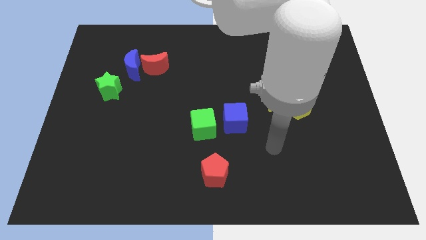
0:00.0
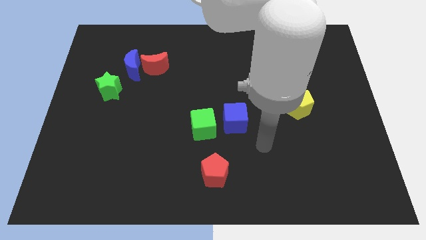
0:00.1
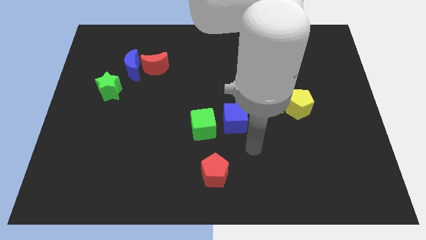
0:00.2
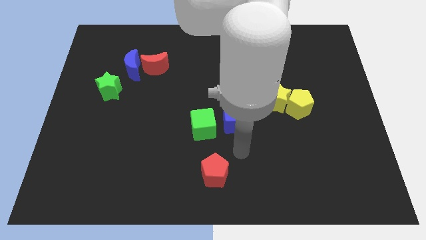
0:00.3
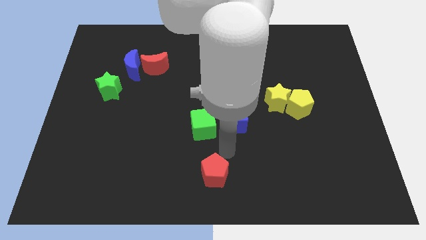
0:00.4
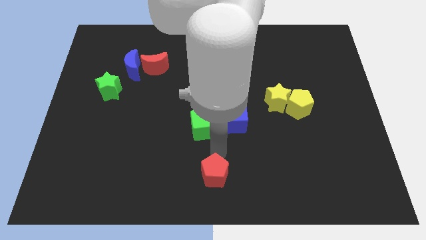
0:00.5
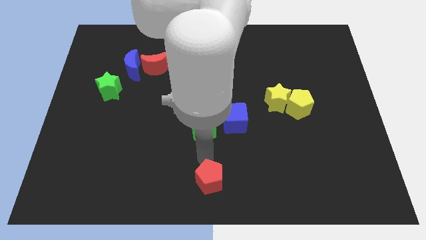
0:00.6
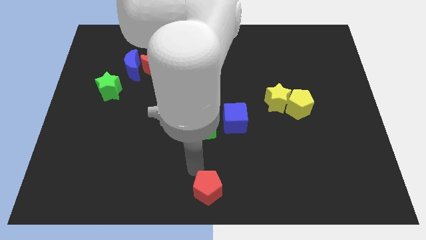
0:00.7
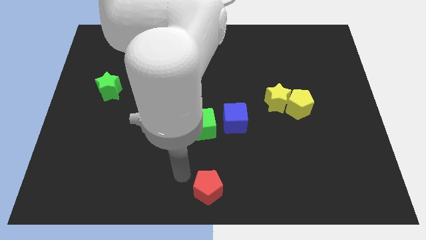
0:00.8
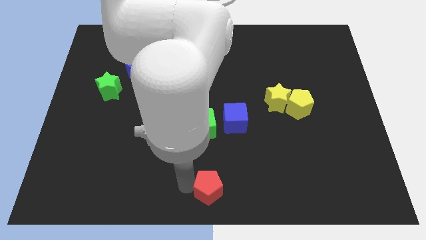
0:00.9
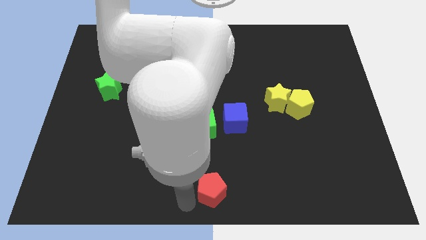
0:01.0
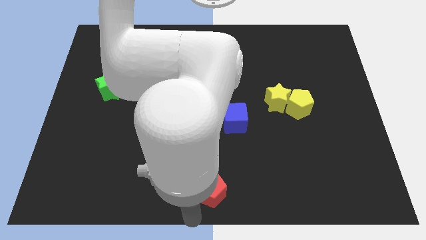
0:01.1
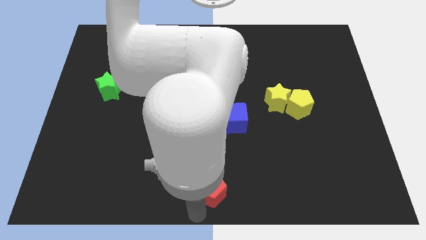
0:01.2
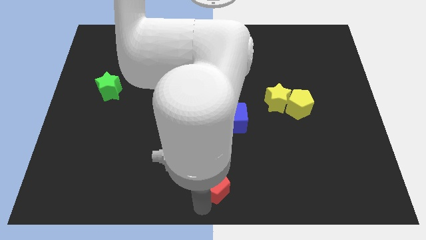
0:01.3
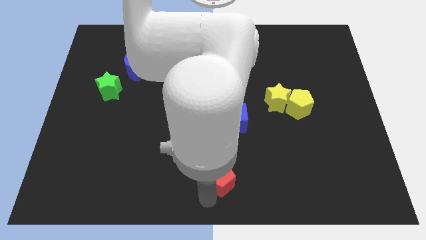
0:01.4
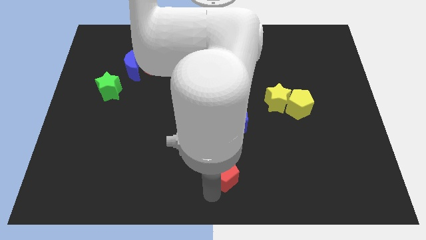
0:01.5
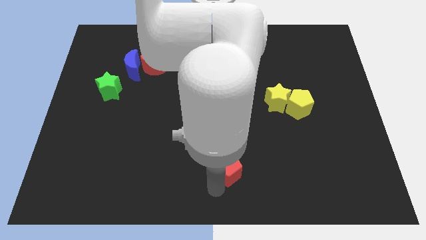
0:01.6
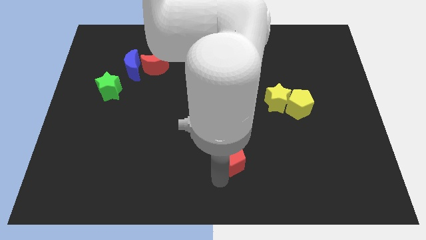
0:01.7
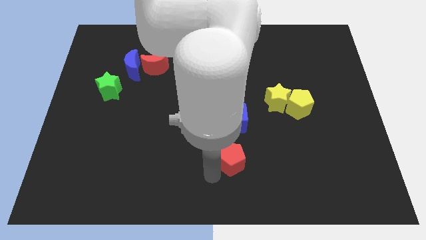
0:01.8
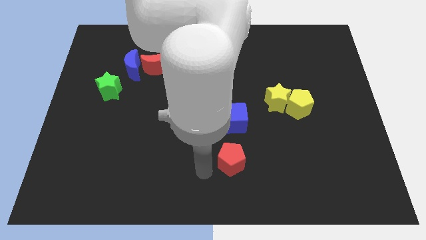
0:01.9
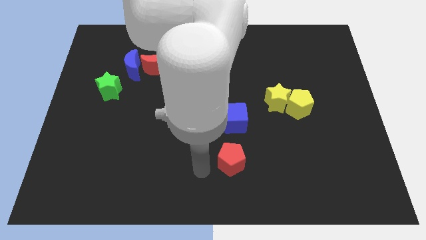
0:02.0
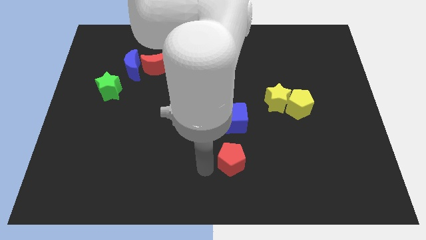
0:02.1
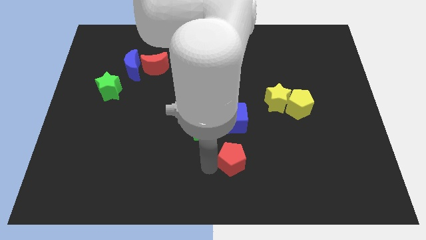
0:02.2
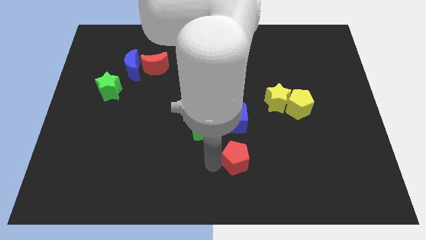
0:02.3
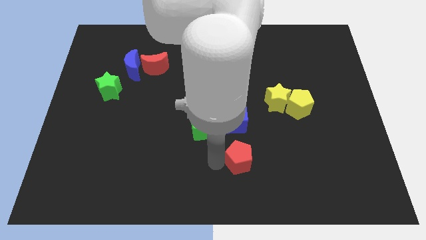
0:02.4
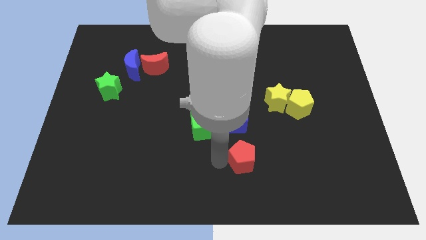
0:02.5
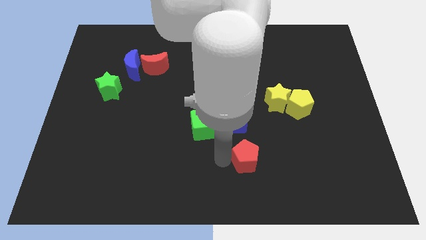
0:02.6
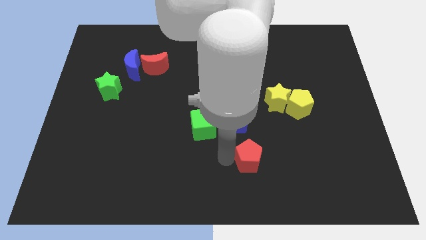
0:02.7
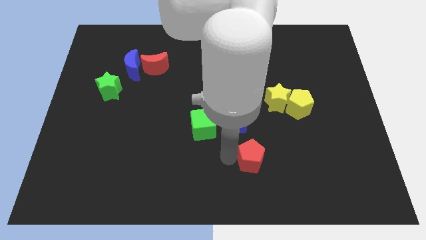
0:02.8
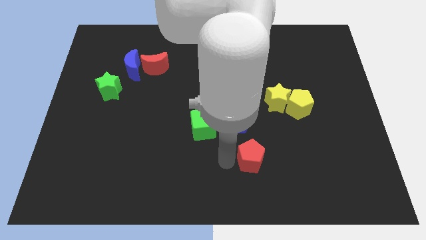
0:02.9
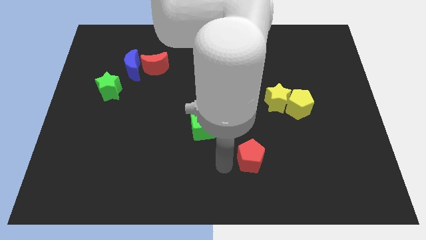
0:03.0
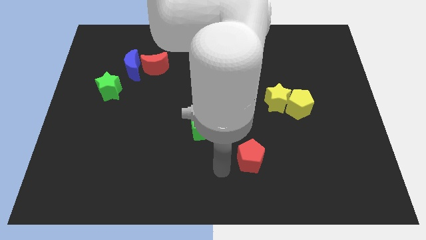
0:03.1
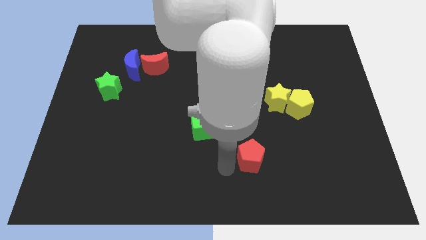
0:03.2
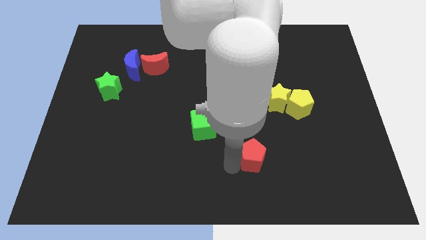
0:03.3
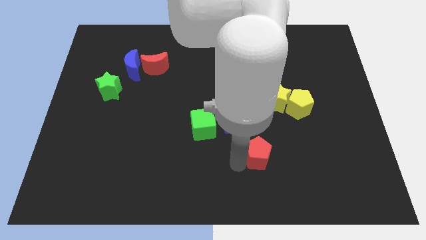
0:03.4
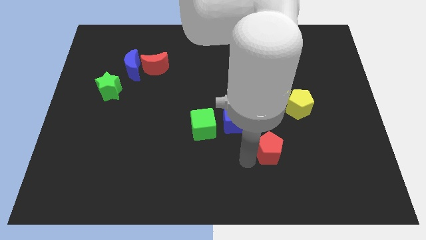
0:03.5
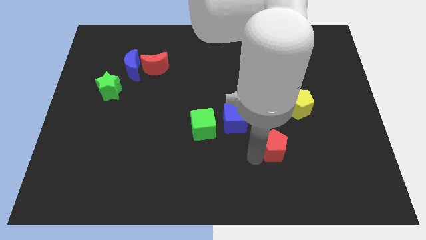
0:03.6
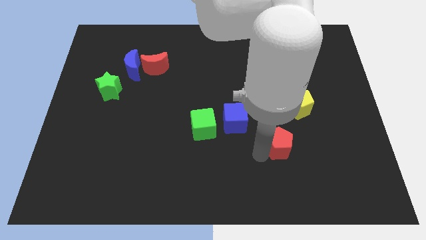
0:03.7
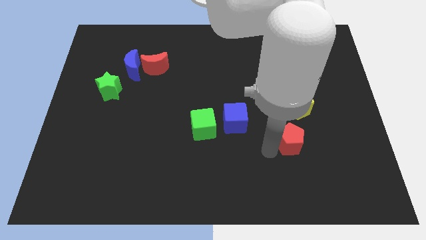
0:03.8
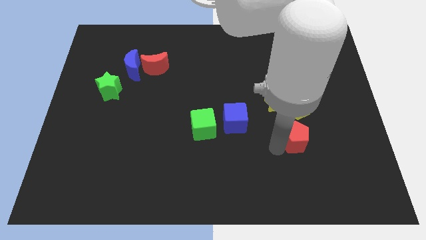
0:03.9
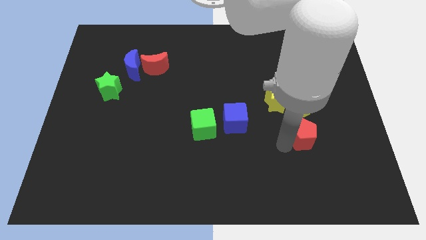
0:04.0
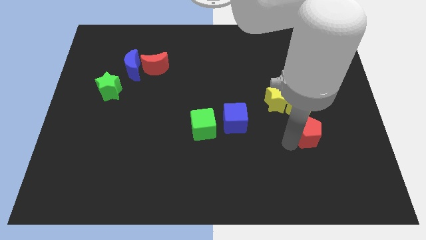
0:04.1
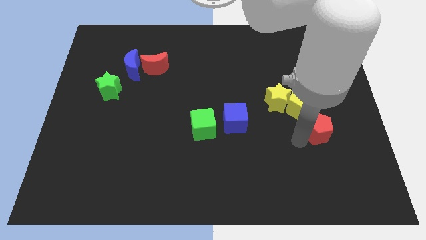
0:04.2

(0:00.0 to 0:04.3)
move the red pentagon up and to the right

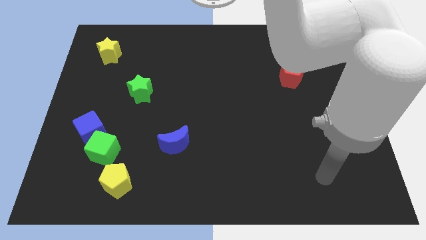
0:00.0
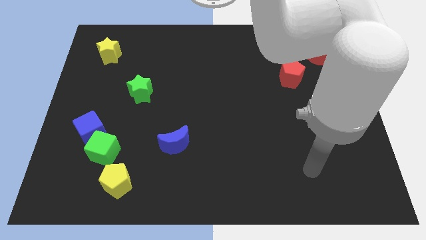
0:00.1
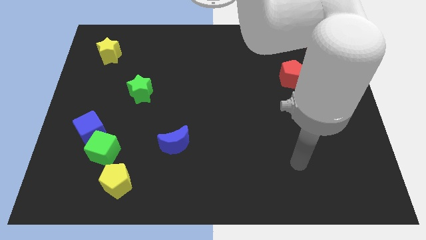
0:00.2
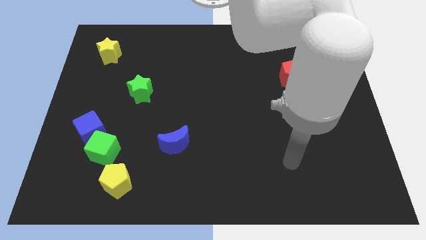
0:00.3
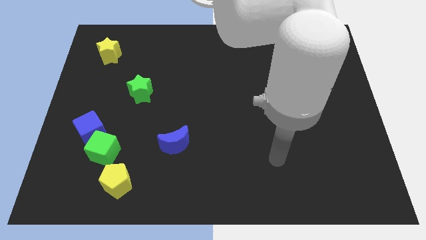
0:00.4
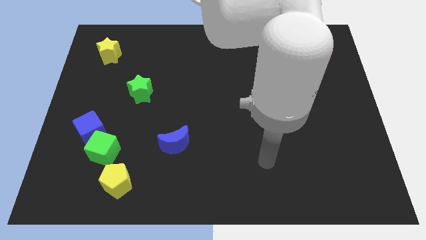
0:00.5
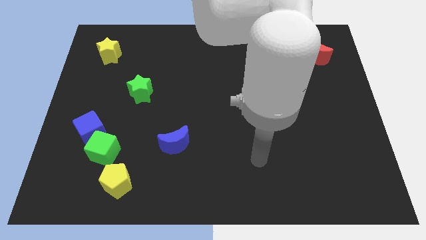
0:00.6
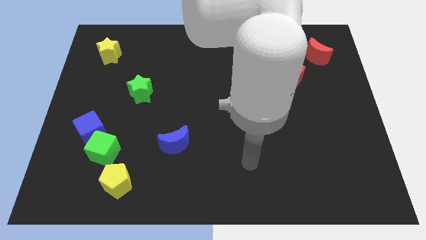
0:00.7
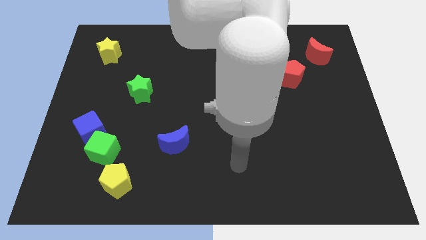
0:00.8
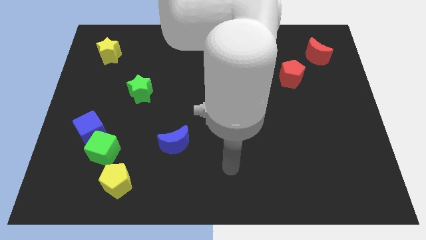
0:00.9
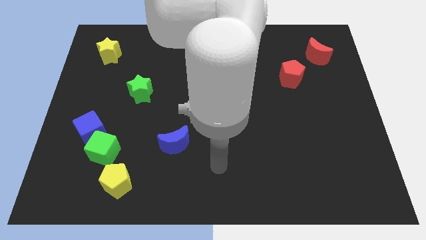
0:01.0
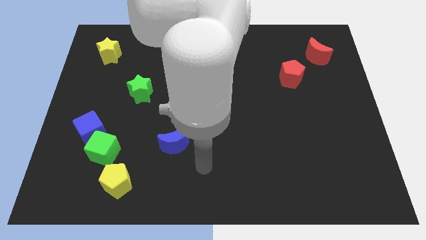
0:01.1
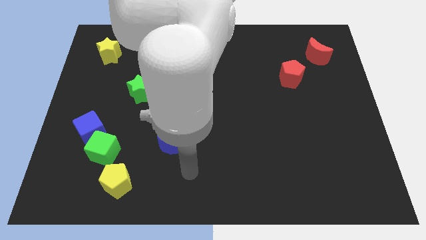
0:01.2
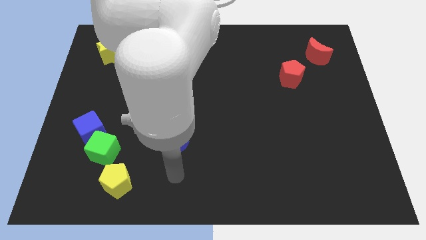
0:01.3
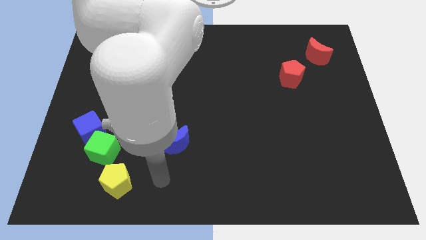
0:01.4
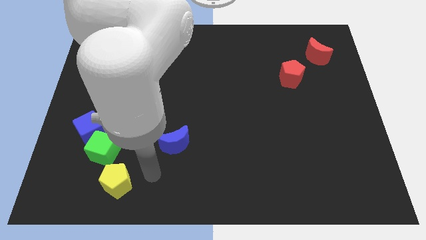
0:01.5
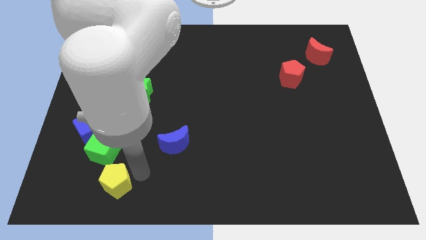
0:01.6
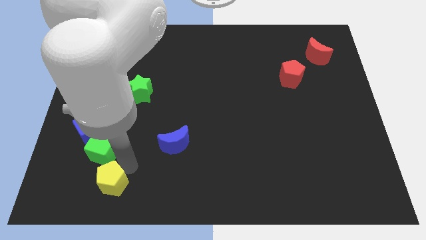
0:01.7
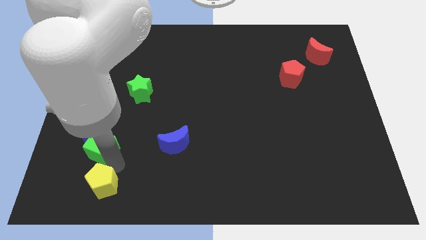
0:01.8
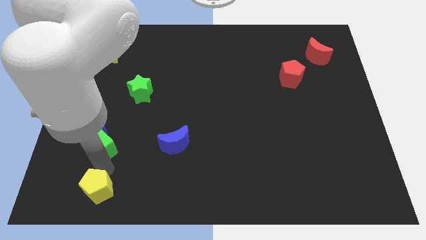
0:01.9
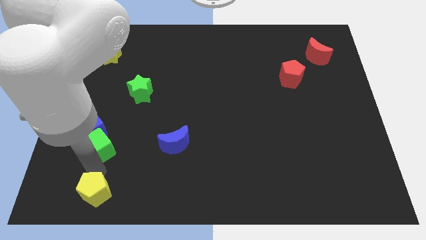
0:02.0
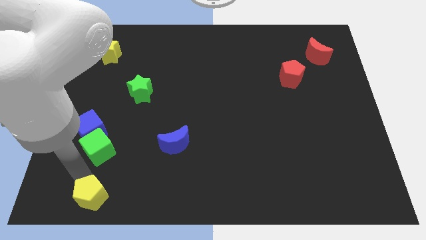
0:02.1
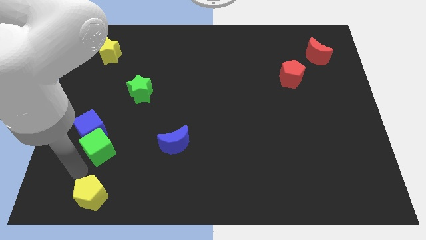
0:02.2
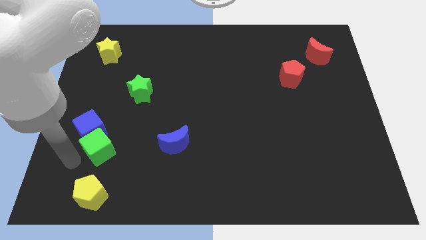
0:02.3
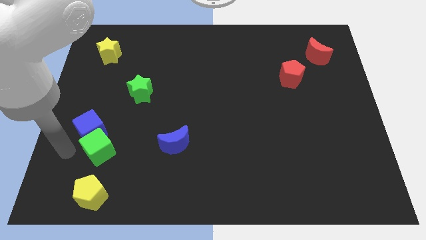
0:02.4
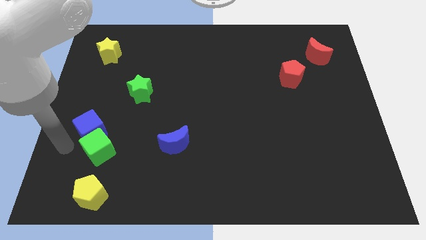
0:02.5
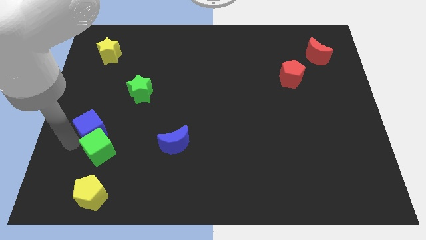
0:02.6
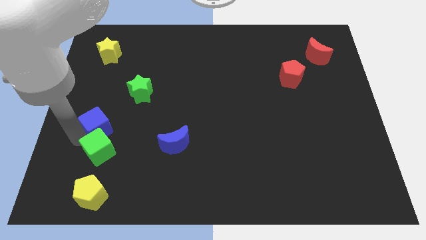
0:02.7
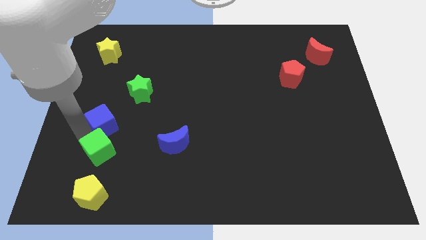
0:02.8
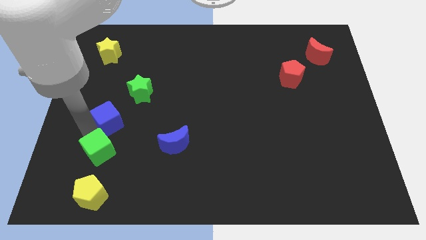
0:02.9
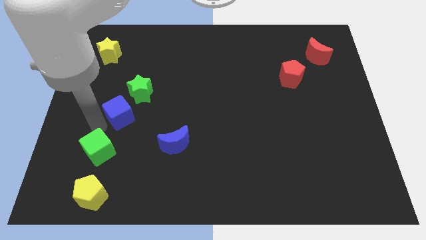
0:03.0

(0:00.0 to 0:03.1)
slightly push the blue cube up and to the right

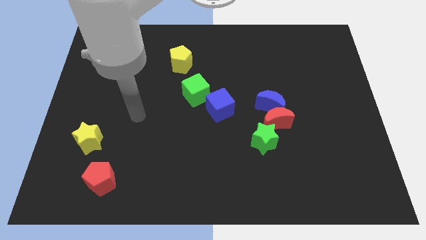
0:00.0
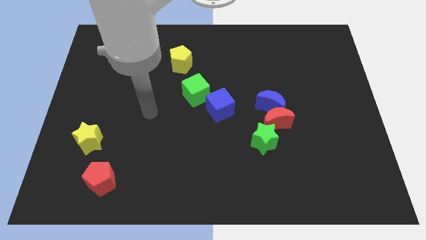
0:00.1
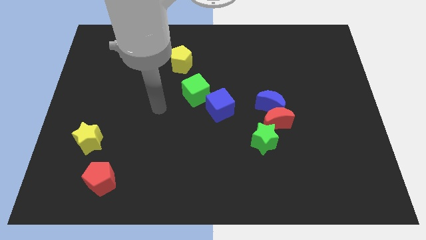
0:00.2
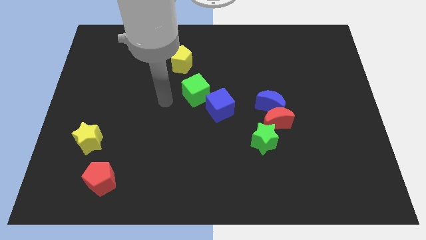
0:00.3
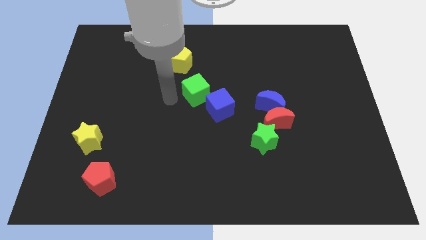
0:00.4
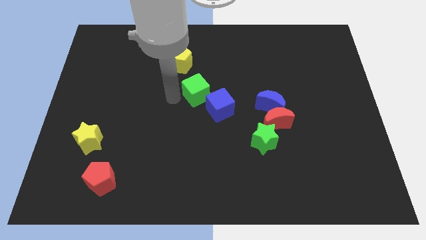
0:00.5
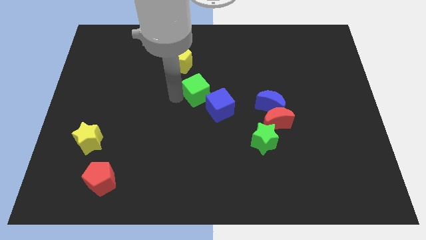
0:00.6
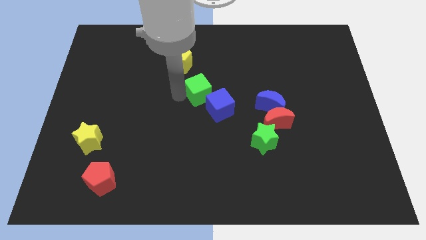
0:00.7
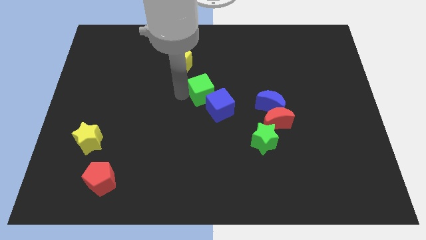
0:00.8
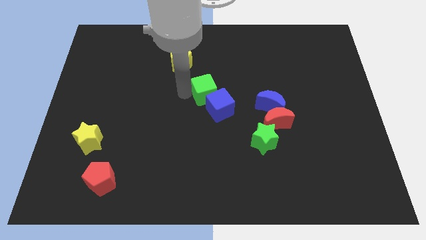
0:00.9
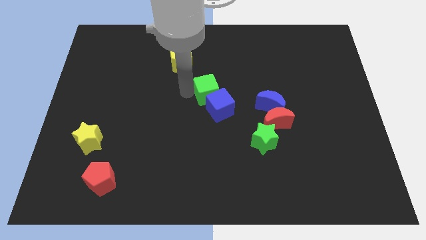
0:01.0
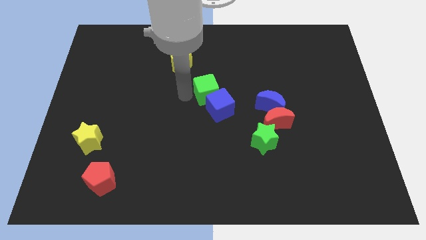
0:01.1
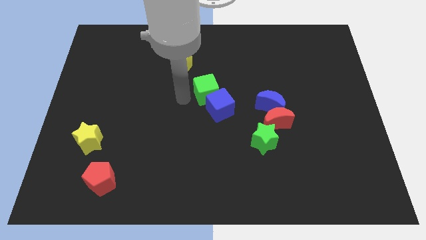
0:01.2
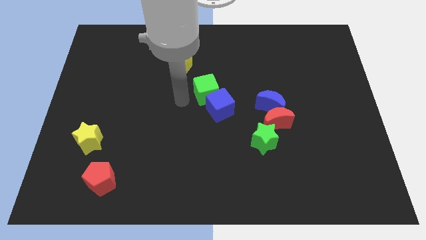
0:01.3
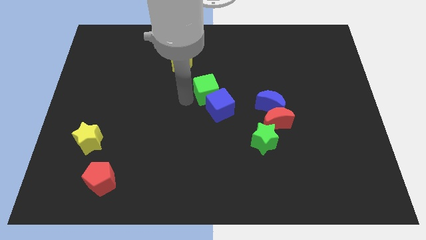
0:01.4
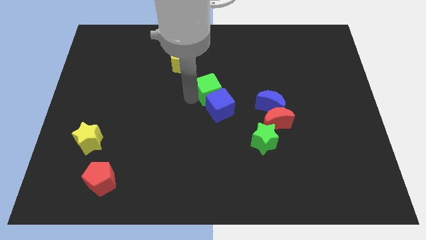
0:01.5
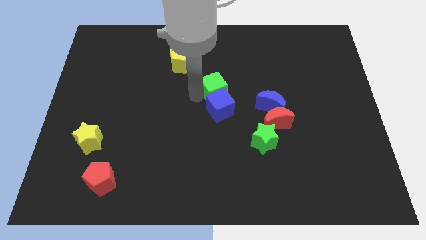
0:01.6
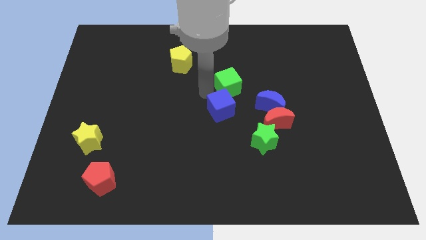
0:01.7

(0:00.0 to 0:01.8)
move the green cube a little right
